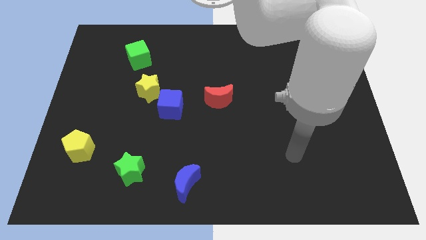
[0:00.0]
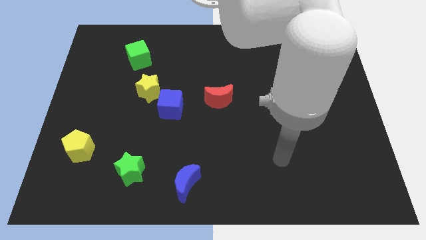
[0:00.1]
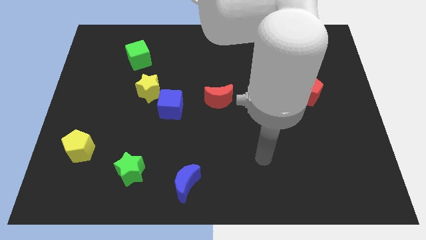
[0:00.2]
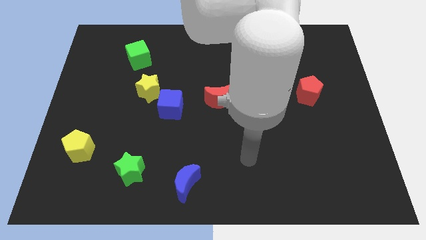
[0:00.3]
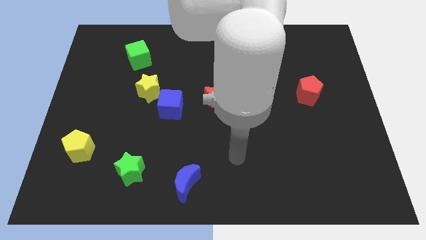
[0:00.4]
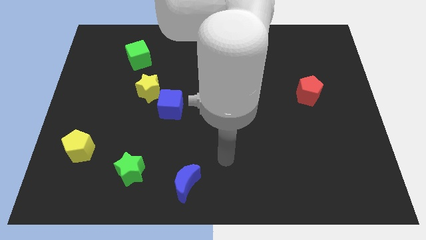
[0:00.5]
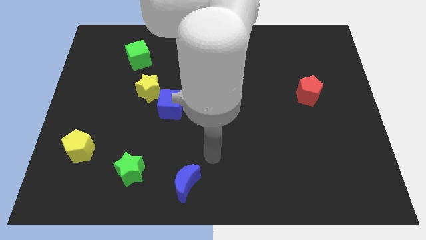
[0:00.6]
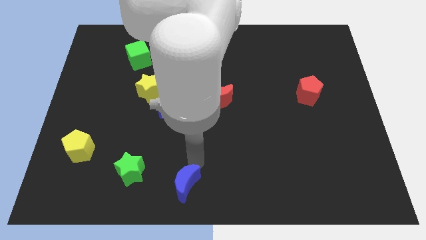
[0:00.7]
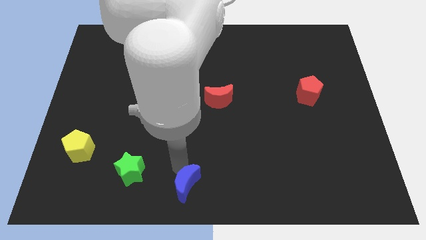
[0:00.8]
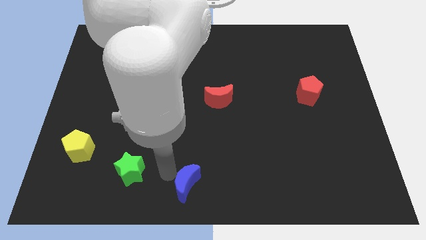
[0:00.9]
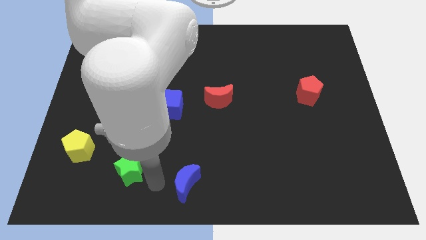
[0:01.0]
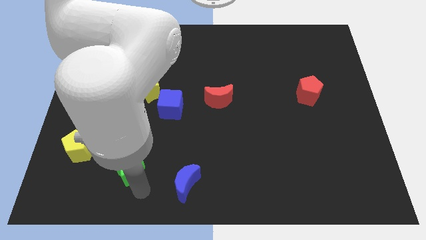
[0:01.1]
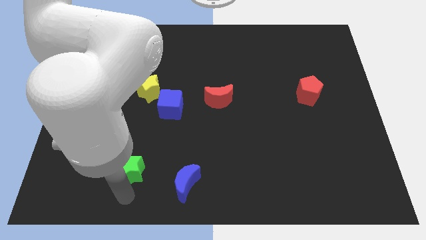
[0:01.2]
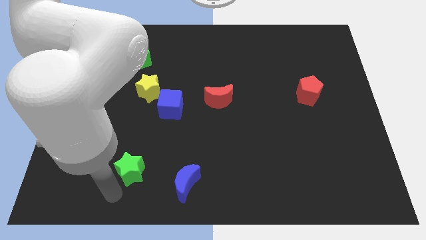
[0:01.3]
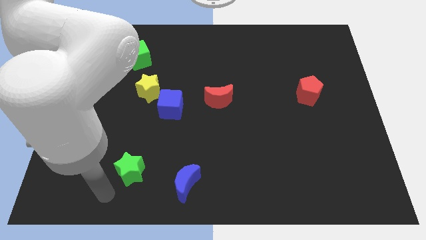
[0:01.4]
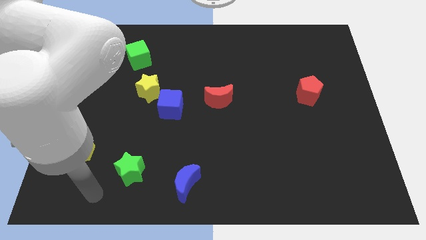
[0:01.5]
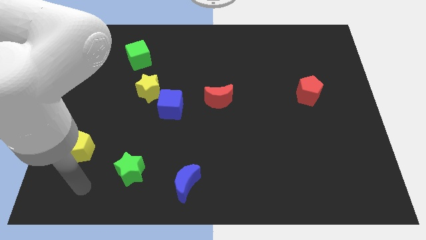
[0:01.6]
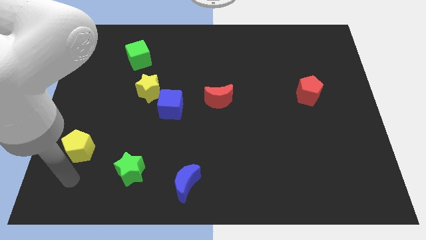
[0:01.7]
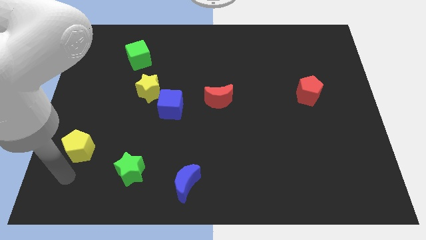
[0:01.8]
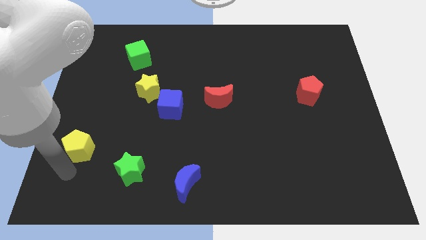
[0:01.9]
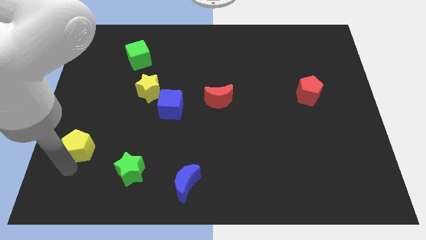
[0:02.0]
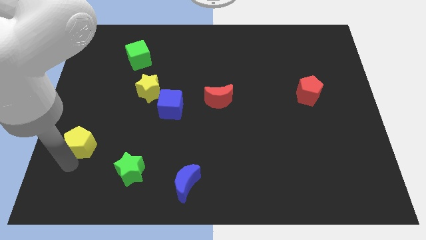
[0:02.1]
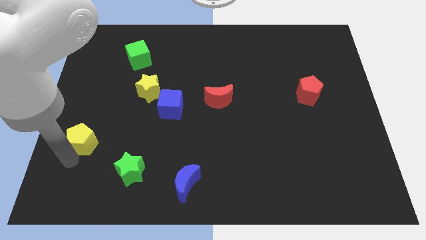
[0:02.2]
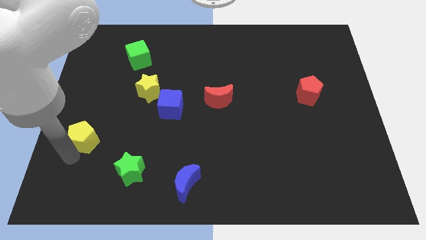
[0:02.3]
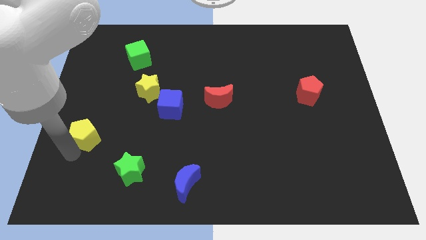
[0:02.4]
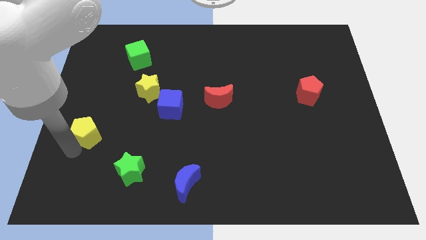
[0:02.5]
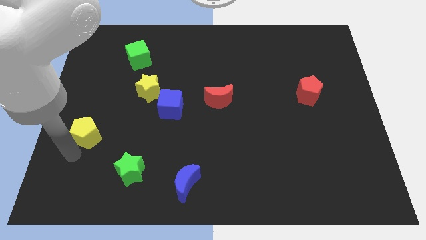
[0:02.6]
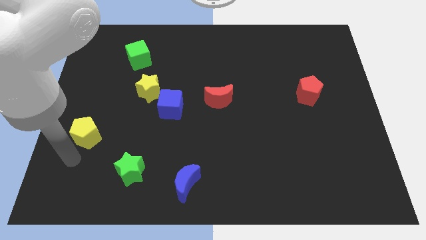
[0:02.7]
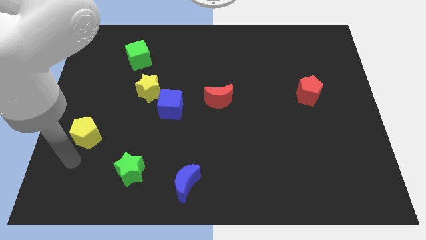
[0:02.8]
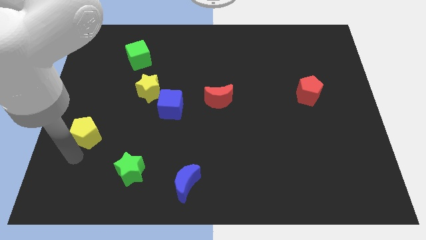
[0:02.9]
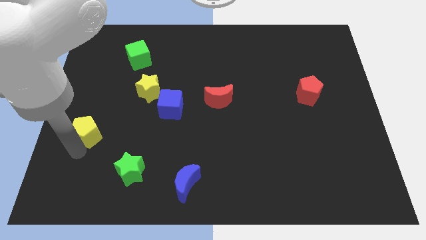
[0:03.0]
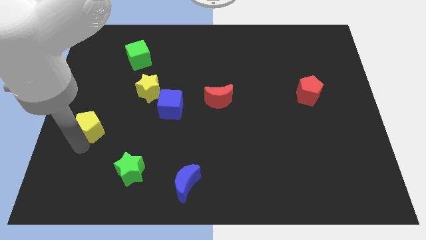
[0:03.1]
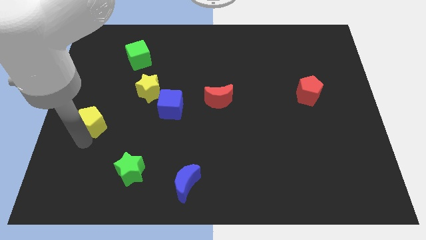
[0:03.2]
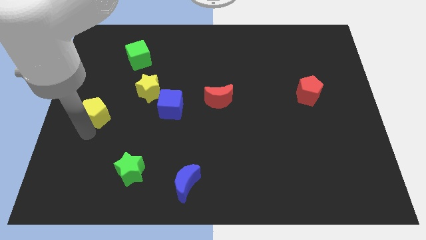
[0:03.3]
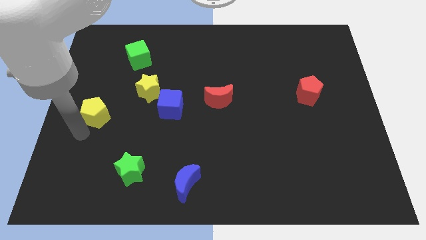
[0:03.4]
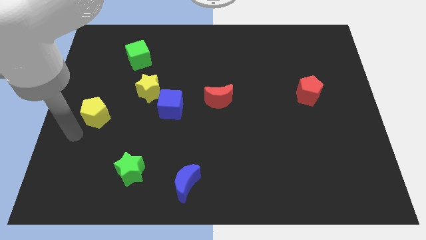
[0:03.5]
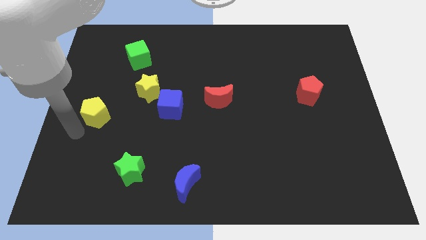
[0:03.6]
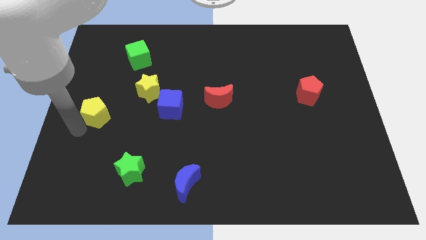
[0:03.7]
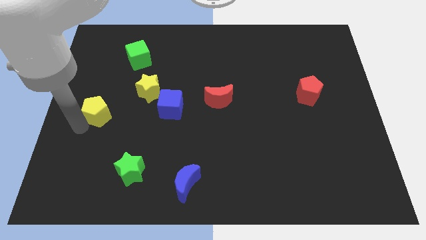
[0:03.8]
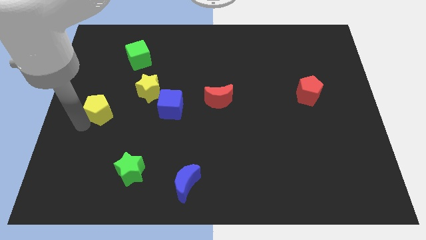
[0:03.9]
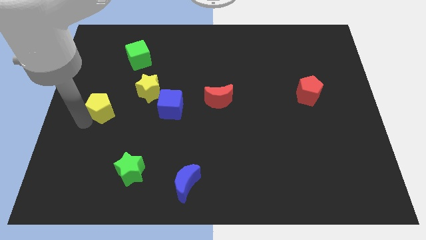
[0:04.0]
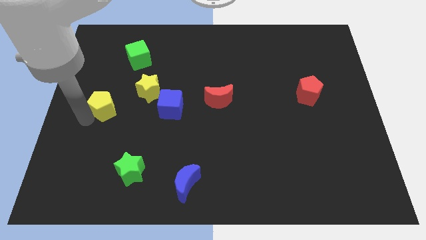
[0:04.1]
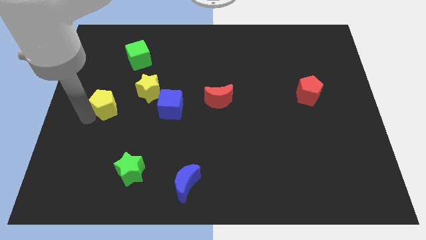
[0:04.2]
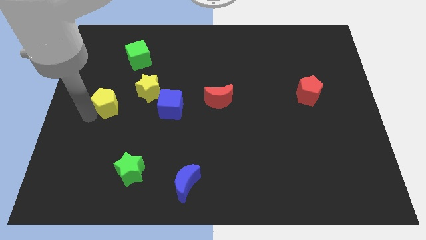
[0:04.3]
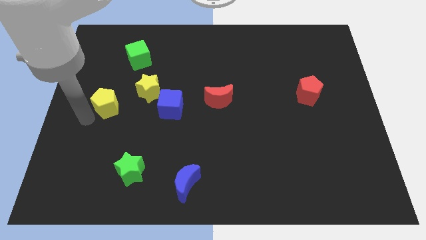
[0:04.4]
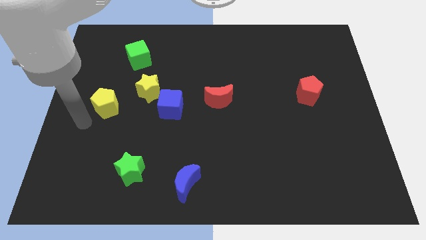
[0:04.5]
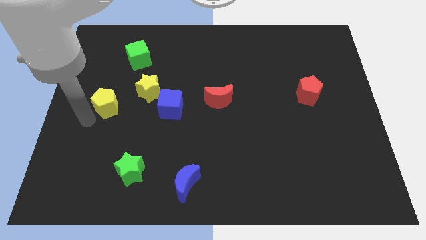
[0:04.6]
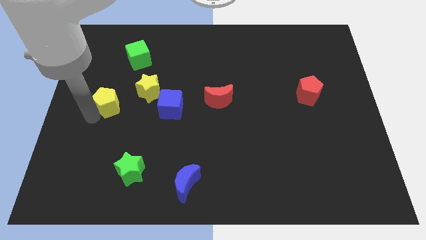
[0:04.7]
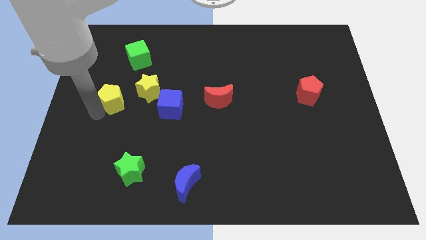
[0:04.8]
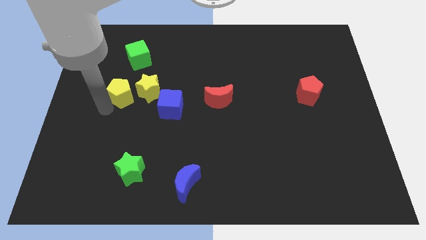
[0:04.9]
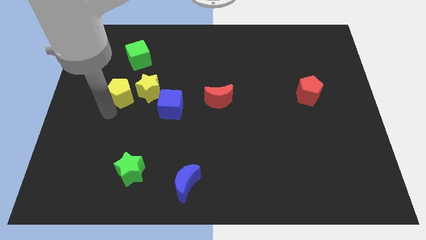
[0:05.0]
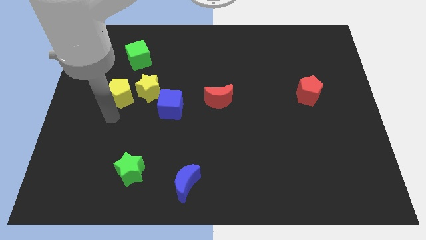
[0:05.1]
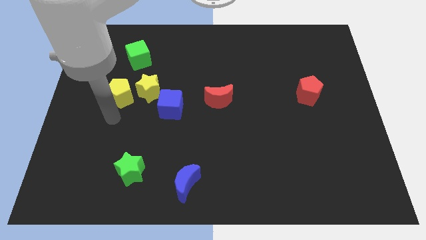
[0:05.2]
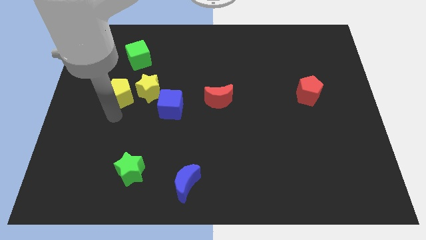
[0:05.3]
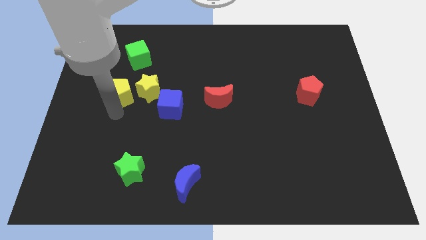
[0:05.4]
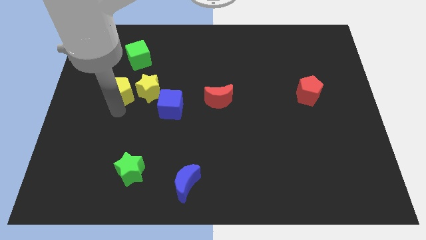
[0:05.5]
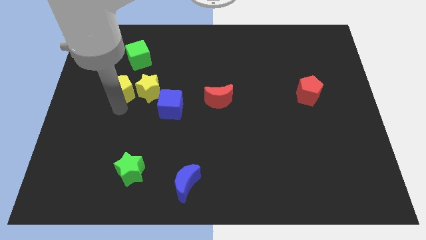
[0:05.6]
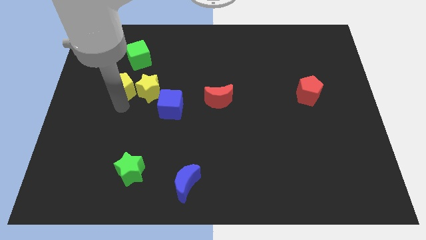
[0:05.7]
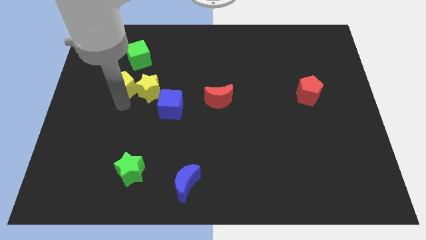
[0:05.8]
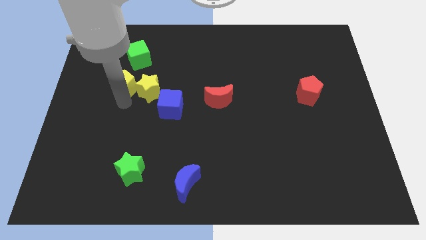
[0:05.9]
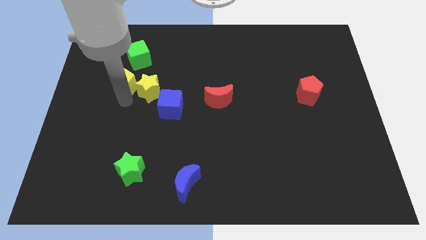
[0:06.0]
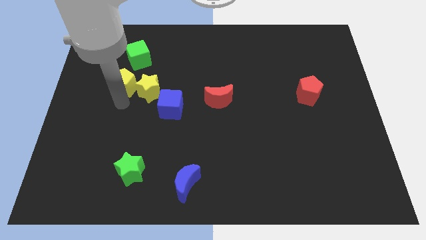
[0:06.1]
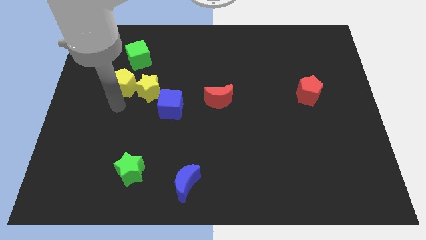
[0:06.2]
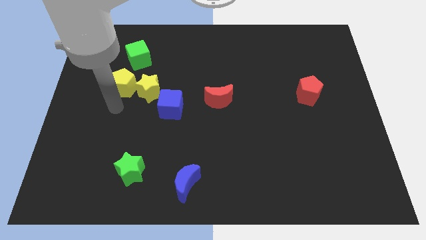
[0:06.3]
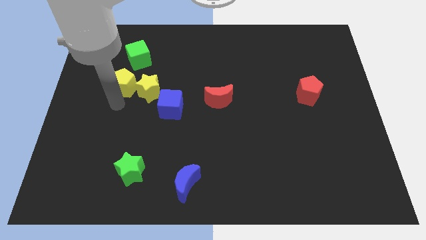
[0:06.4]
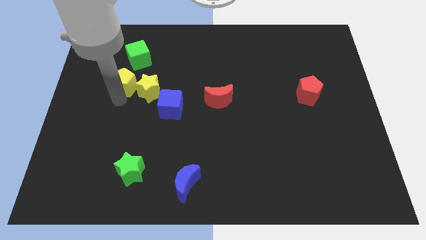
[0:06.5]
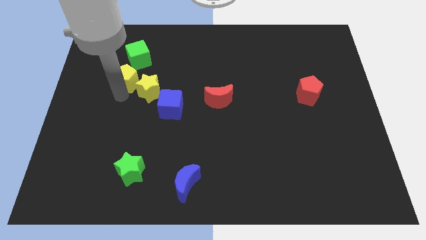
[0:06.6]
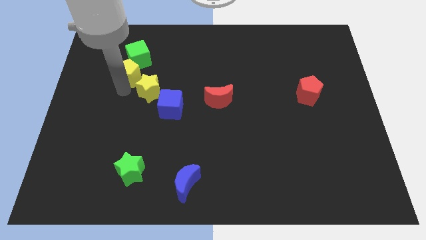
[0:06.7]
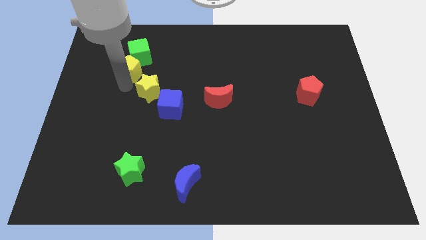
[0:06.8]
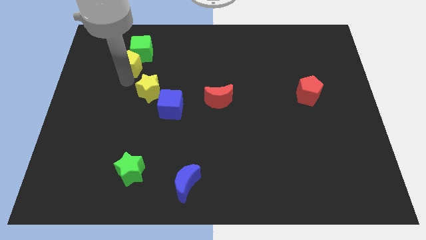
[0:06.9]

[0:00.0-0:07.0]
move the yellow pentagon next to the green cube
